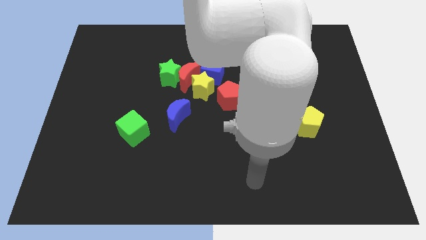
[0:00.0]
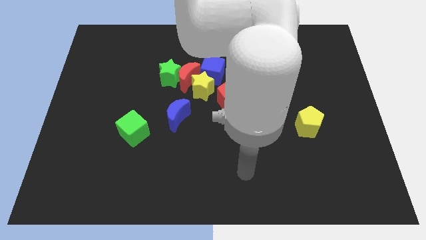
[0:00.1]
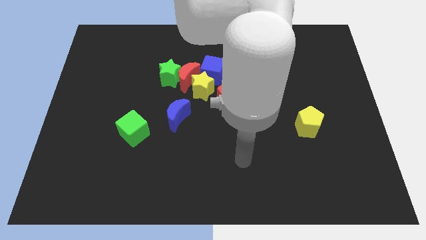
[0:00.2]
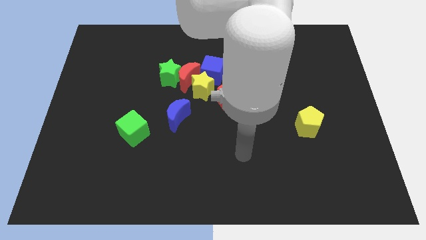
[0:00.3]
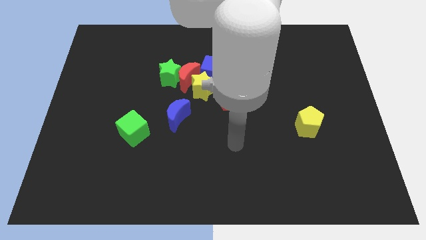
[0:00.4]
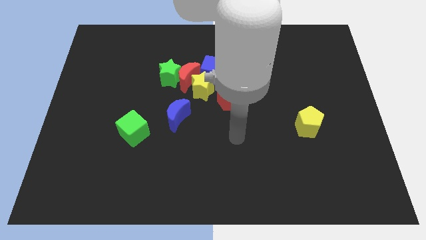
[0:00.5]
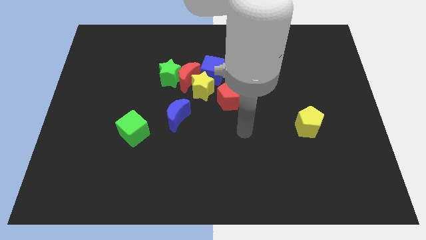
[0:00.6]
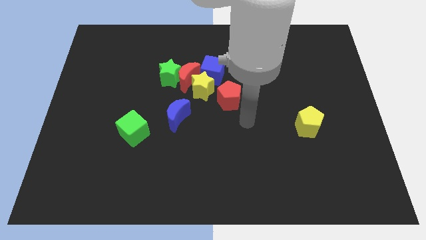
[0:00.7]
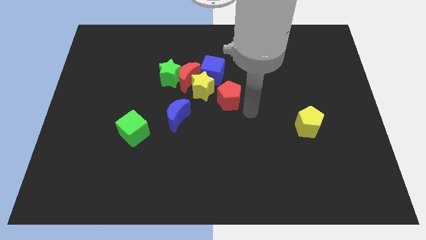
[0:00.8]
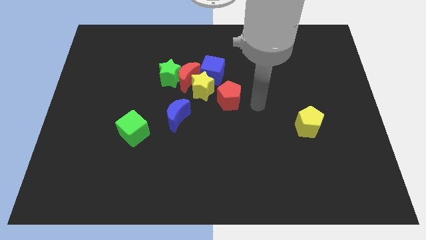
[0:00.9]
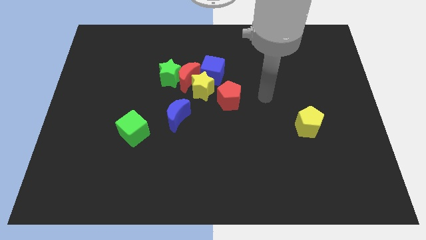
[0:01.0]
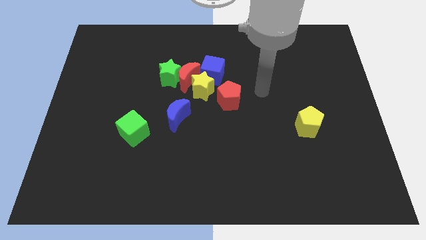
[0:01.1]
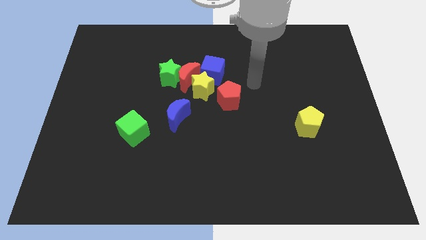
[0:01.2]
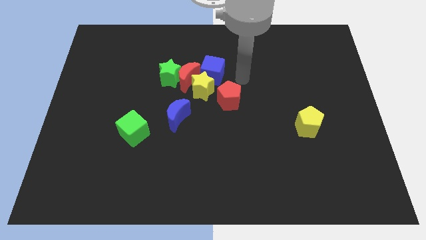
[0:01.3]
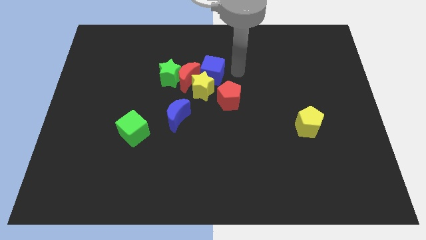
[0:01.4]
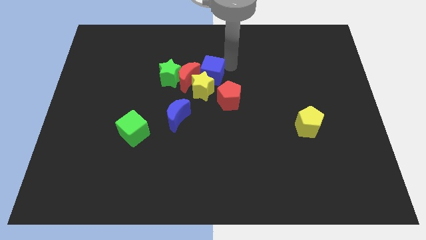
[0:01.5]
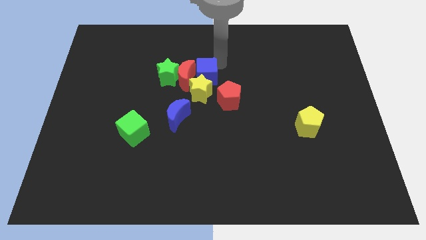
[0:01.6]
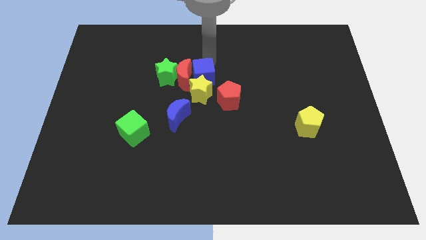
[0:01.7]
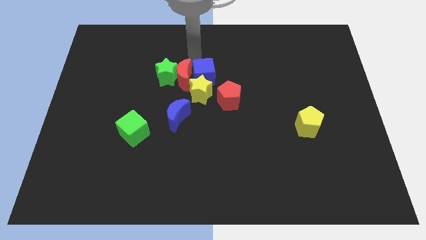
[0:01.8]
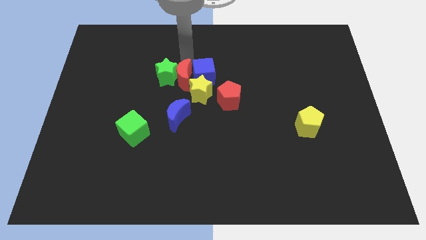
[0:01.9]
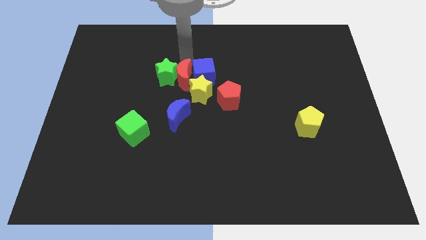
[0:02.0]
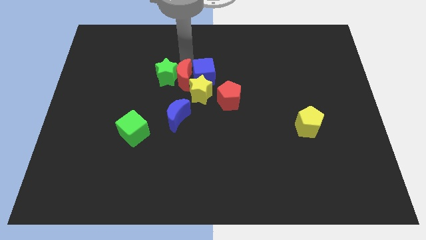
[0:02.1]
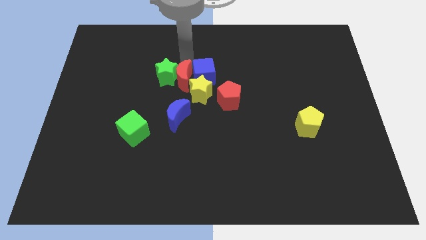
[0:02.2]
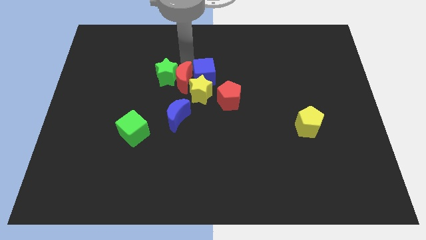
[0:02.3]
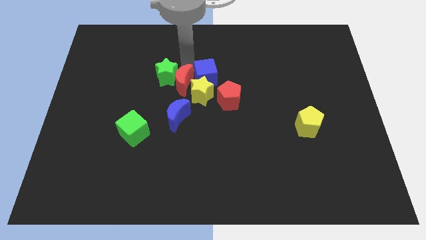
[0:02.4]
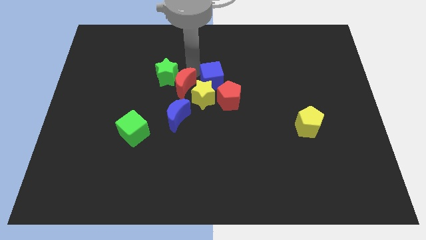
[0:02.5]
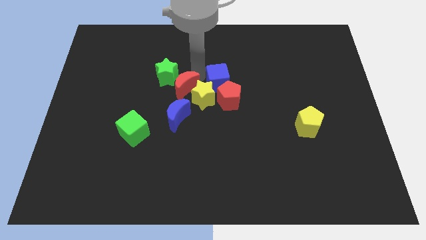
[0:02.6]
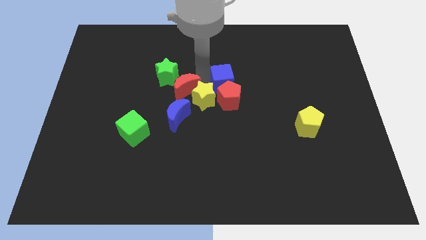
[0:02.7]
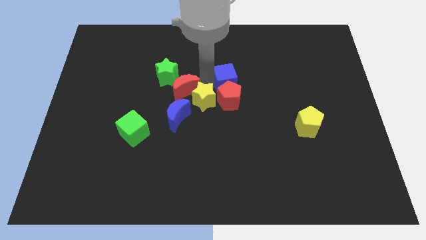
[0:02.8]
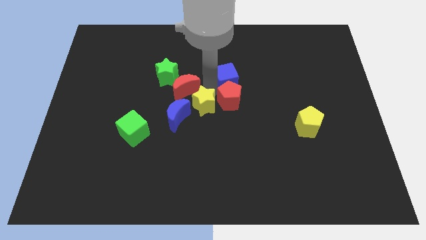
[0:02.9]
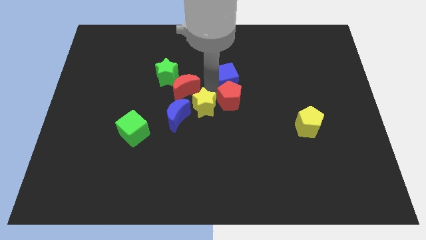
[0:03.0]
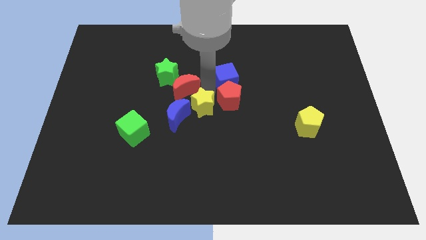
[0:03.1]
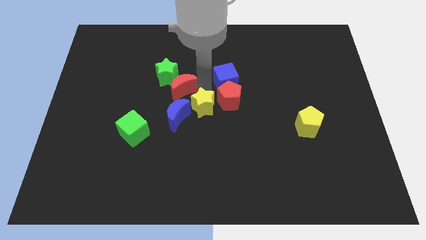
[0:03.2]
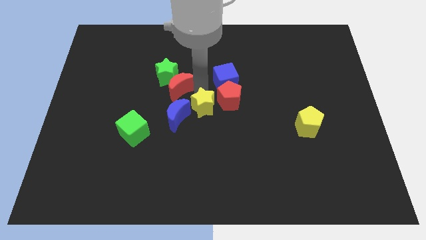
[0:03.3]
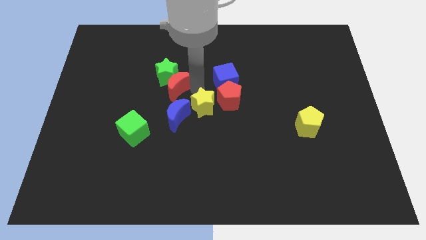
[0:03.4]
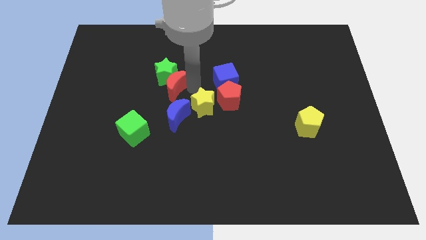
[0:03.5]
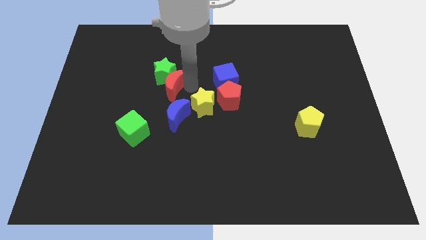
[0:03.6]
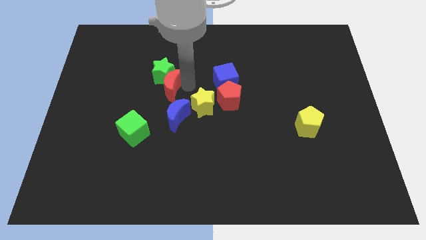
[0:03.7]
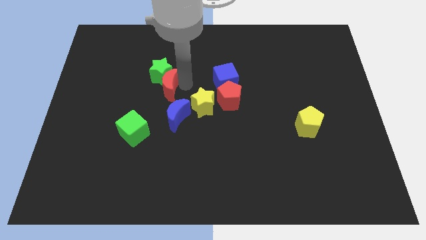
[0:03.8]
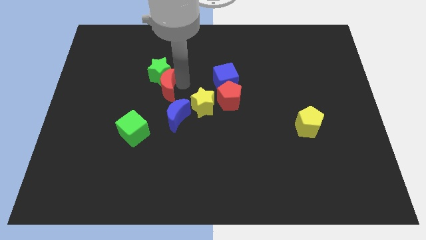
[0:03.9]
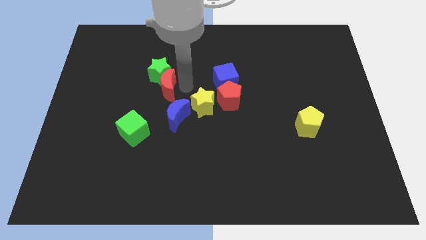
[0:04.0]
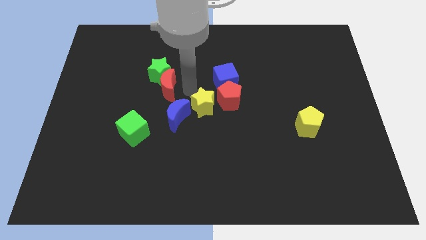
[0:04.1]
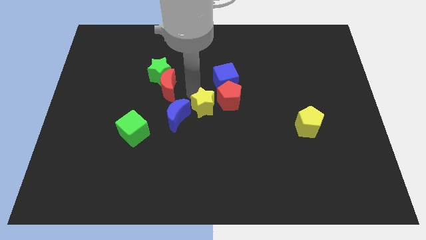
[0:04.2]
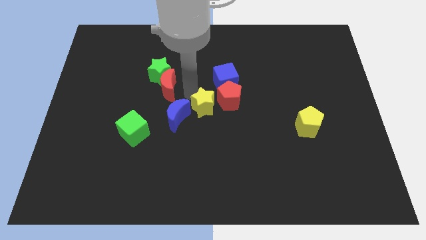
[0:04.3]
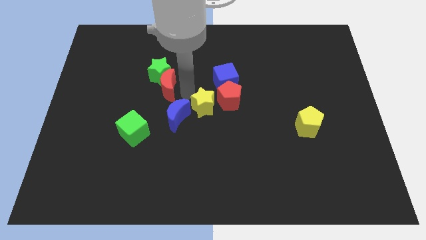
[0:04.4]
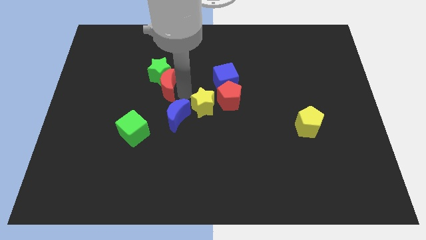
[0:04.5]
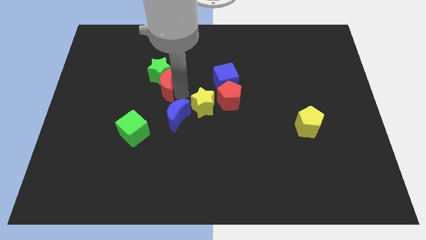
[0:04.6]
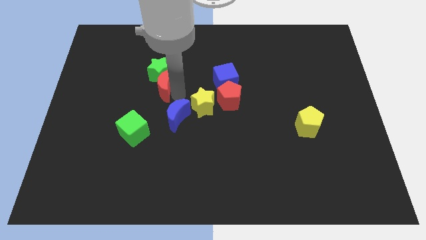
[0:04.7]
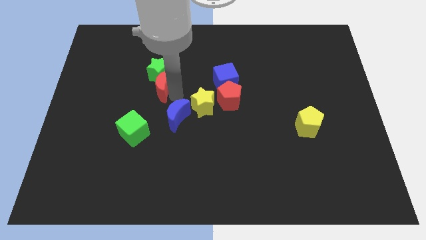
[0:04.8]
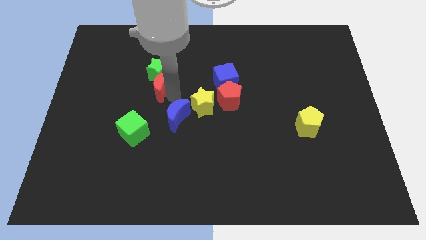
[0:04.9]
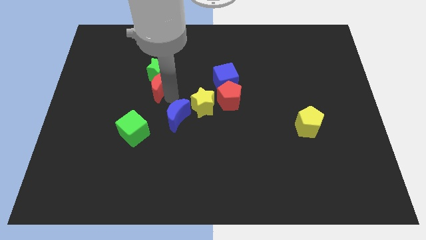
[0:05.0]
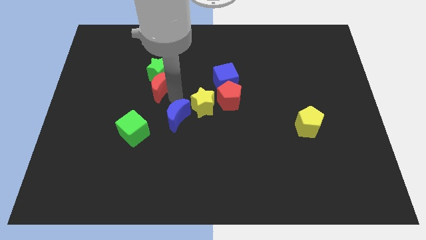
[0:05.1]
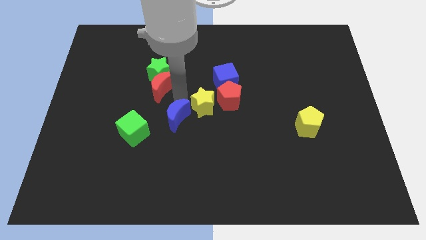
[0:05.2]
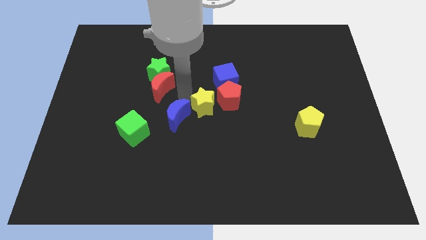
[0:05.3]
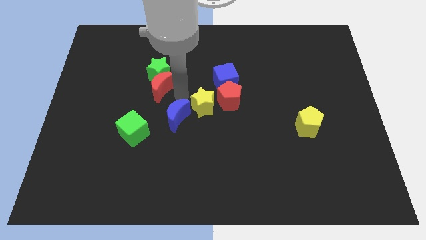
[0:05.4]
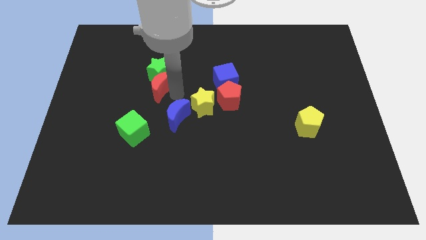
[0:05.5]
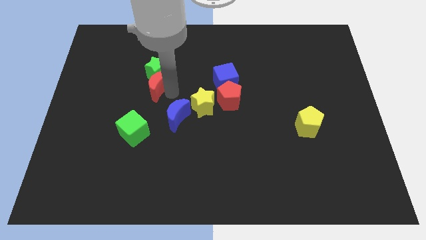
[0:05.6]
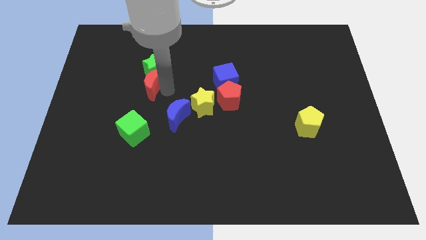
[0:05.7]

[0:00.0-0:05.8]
separate the red moon from the clump

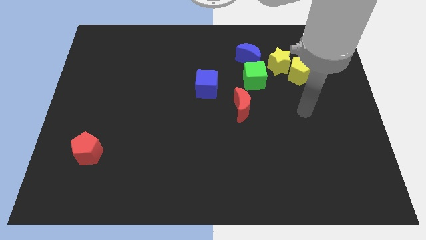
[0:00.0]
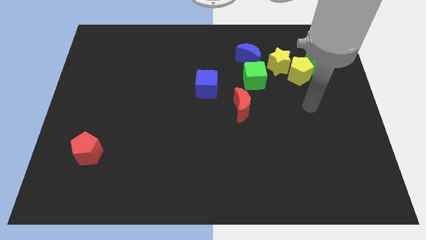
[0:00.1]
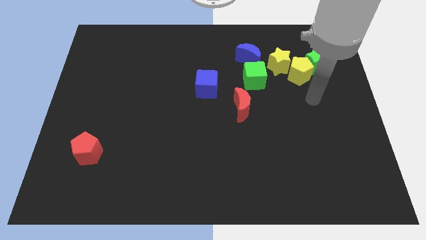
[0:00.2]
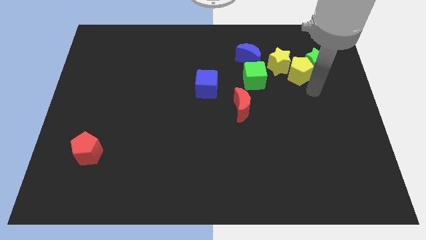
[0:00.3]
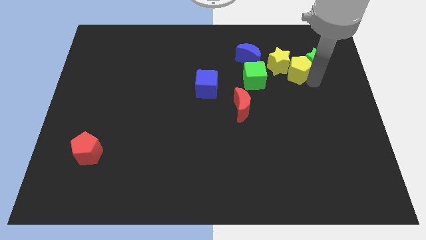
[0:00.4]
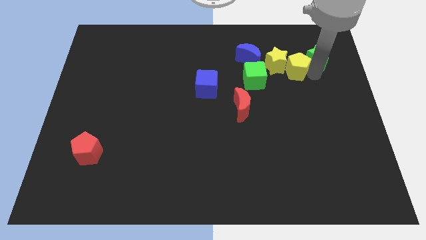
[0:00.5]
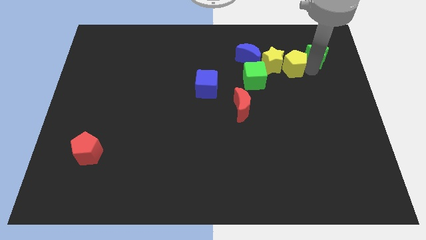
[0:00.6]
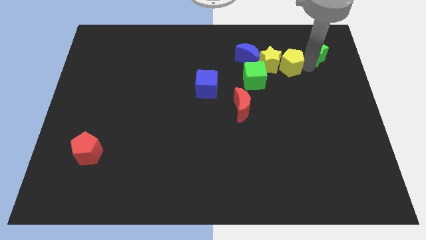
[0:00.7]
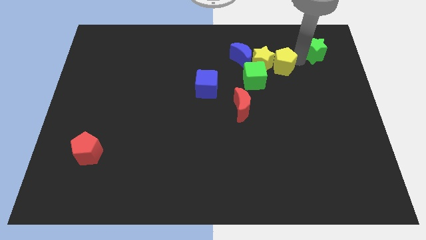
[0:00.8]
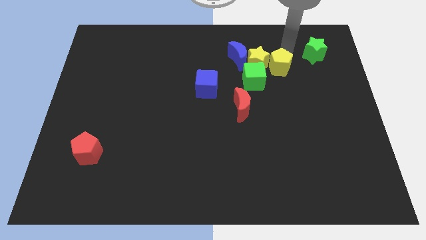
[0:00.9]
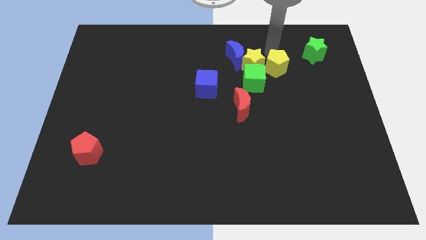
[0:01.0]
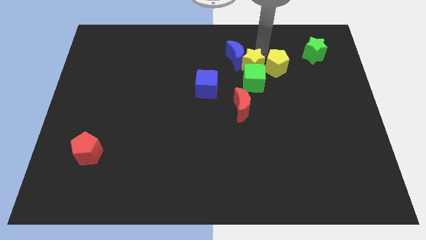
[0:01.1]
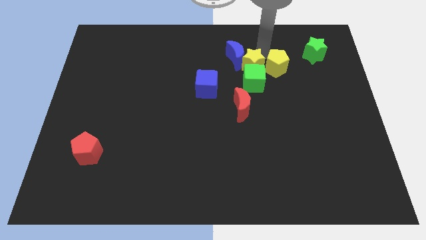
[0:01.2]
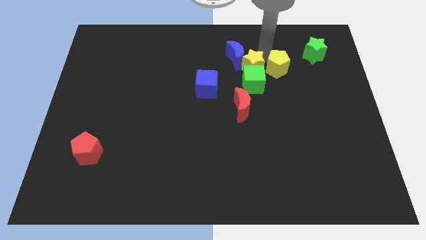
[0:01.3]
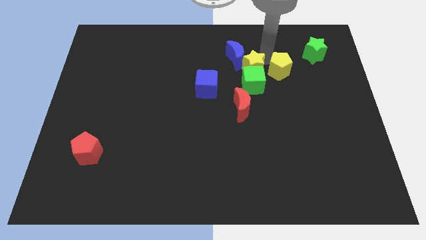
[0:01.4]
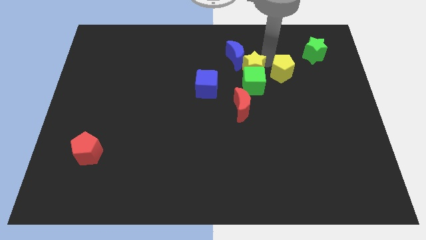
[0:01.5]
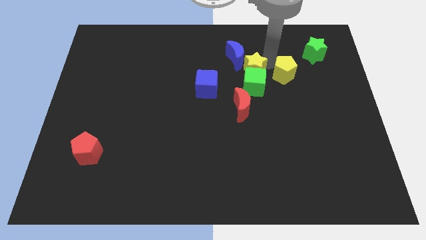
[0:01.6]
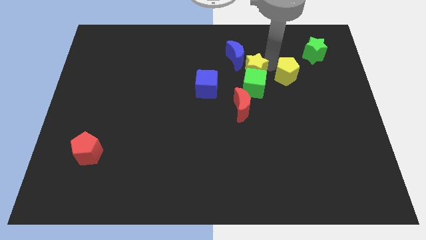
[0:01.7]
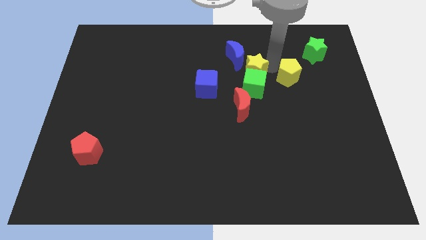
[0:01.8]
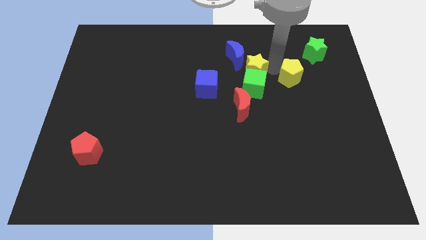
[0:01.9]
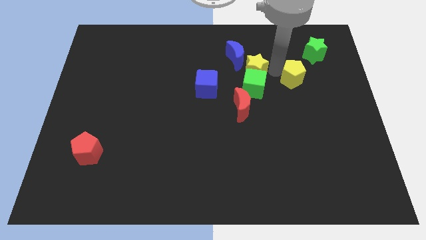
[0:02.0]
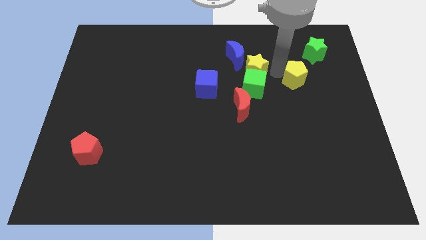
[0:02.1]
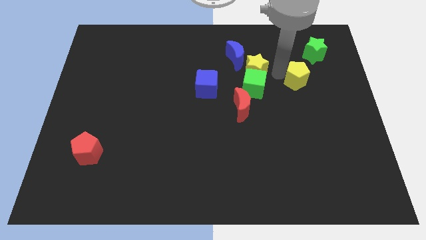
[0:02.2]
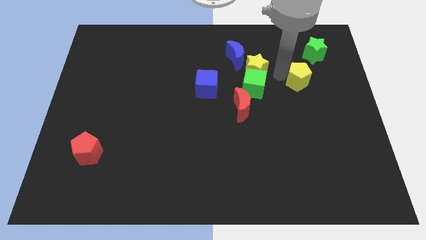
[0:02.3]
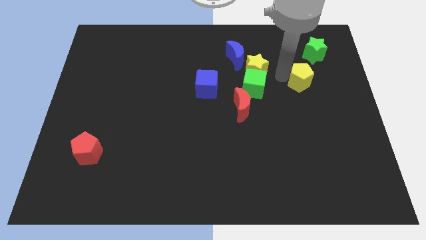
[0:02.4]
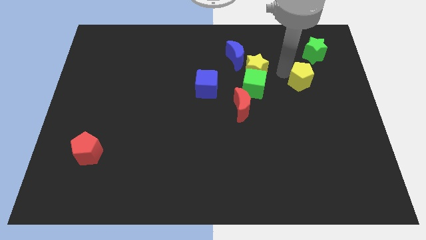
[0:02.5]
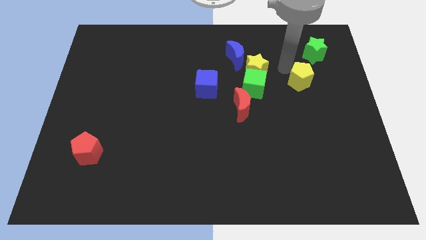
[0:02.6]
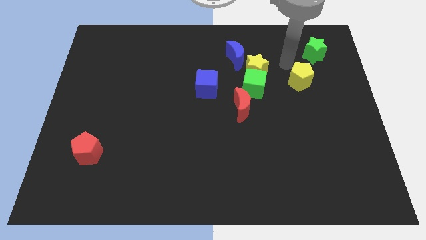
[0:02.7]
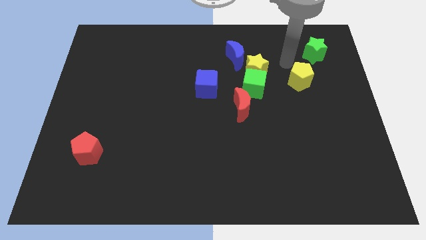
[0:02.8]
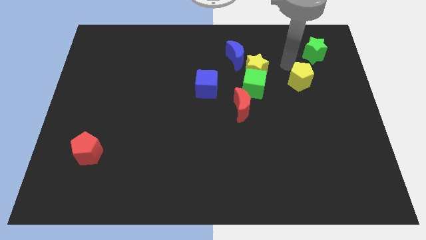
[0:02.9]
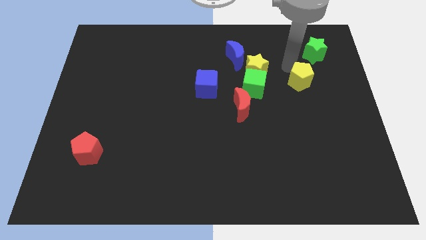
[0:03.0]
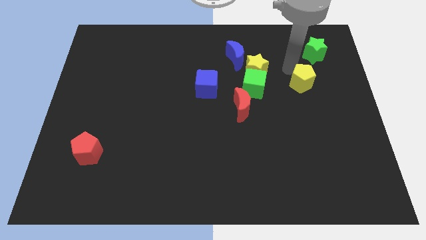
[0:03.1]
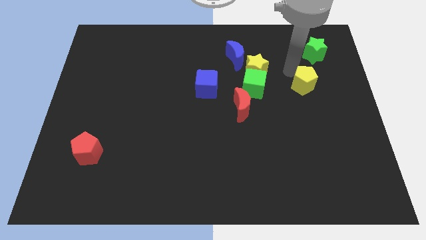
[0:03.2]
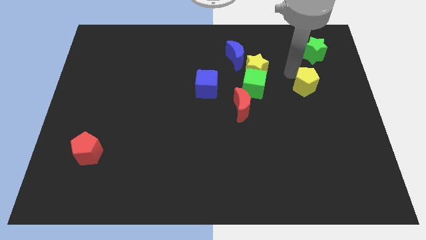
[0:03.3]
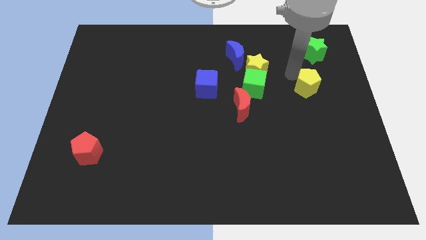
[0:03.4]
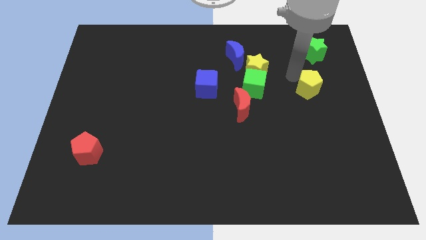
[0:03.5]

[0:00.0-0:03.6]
move the yellow pentagon away from the green star and yellow star
